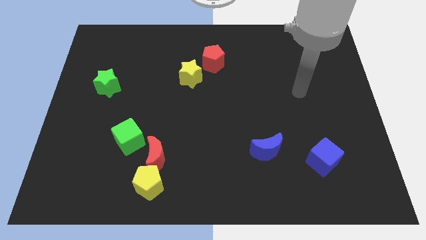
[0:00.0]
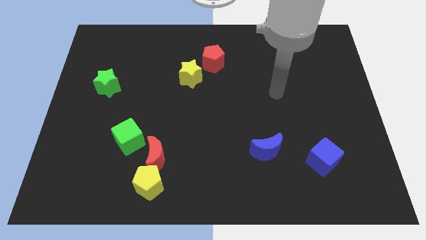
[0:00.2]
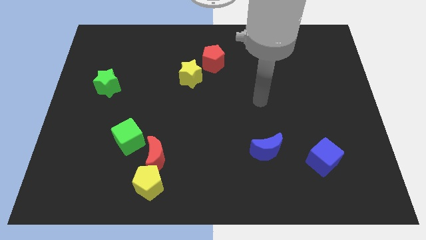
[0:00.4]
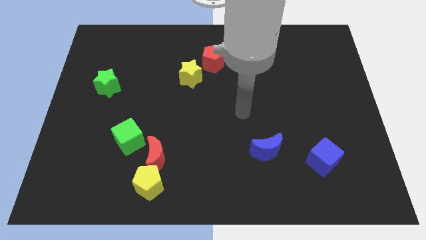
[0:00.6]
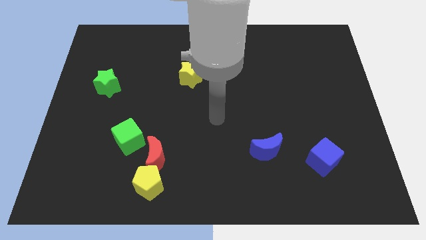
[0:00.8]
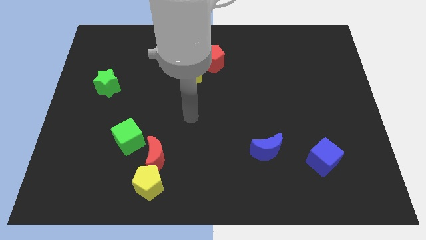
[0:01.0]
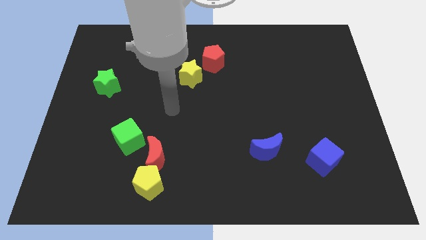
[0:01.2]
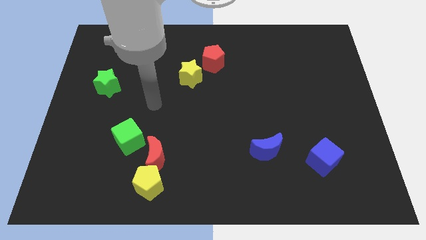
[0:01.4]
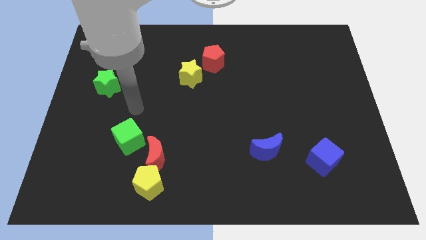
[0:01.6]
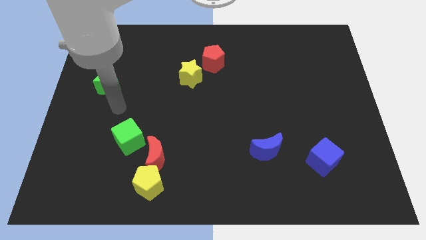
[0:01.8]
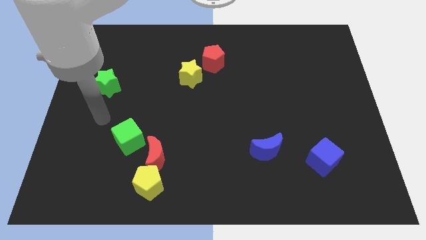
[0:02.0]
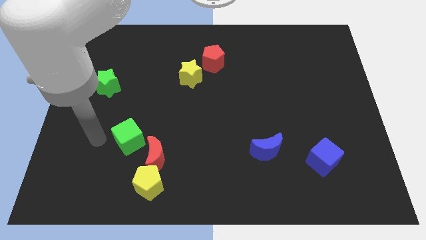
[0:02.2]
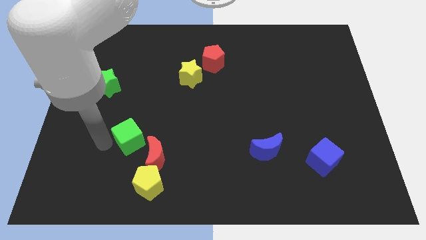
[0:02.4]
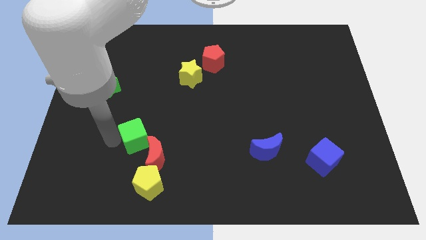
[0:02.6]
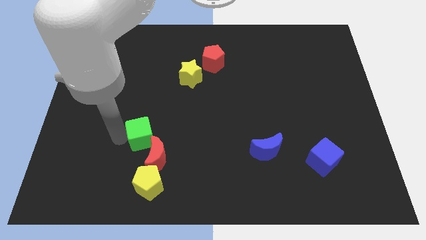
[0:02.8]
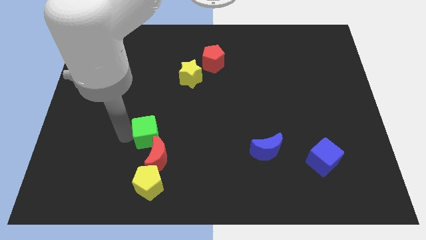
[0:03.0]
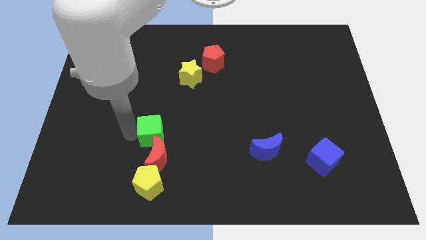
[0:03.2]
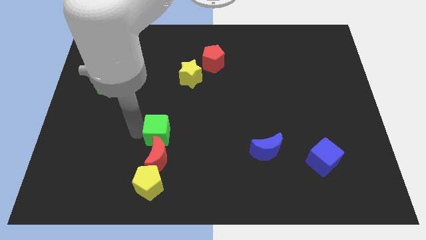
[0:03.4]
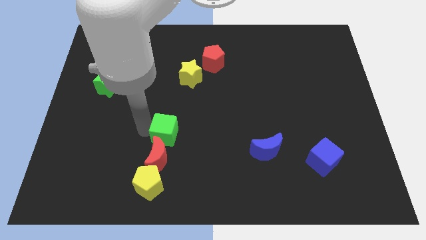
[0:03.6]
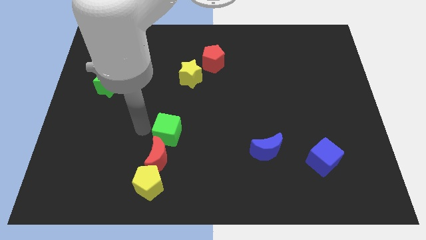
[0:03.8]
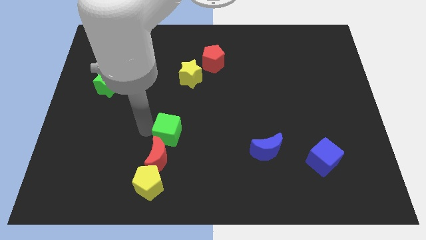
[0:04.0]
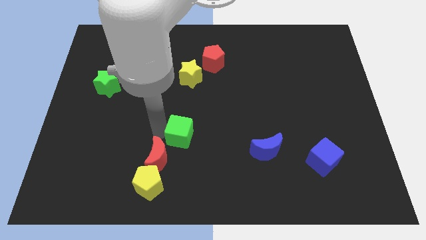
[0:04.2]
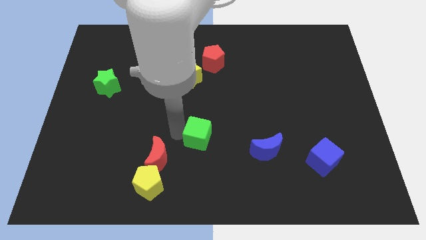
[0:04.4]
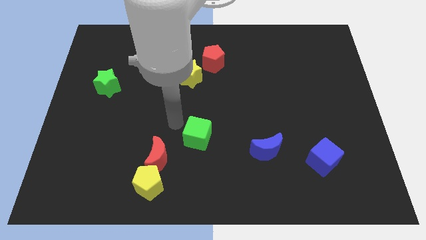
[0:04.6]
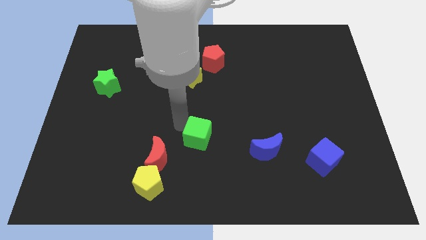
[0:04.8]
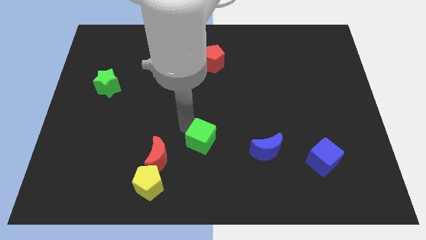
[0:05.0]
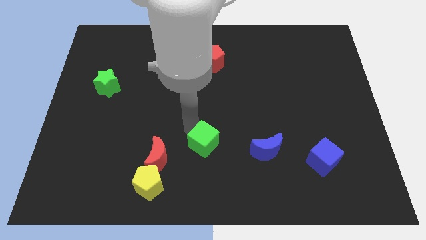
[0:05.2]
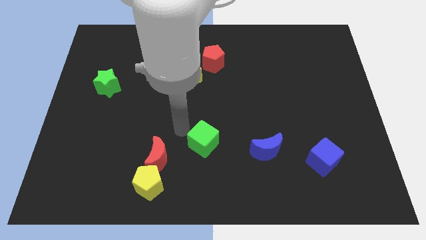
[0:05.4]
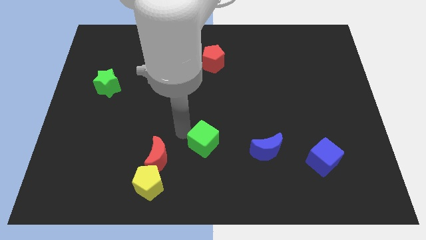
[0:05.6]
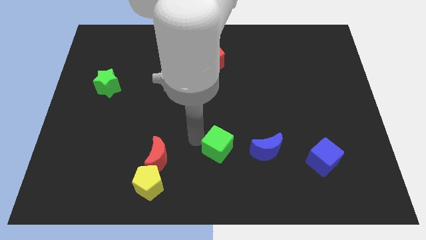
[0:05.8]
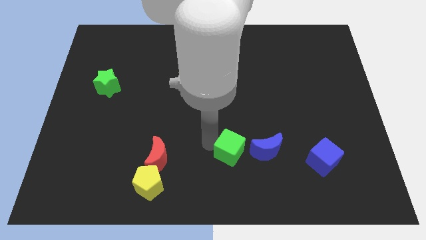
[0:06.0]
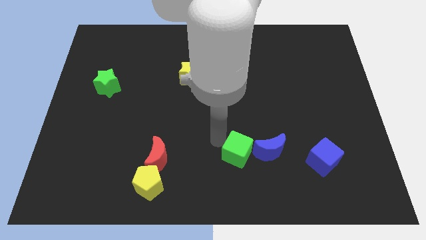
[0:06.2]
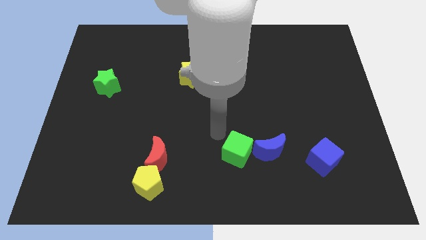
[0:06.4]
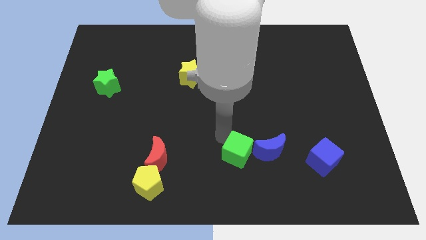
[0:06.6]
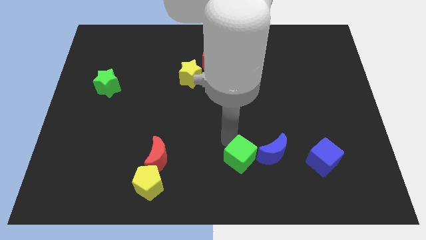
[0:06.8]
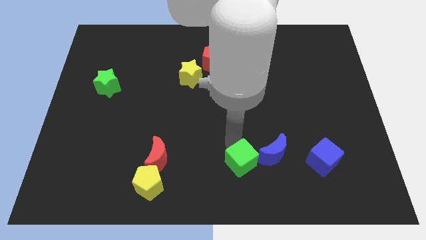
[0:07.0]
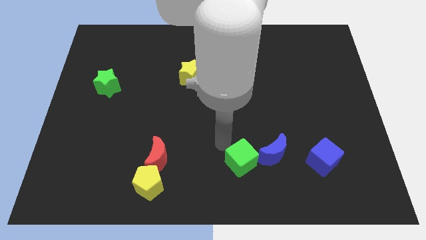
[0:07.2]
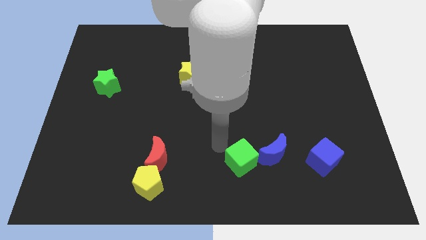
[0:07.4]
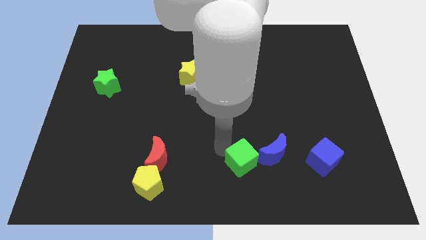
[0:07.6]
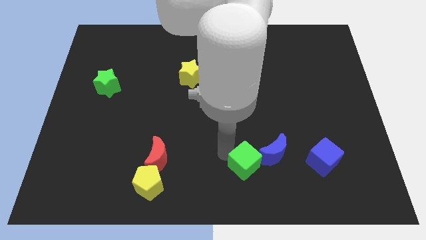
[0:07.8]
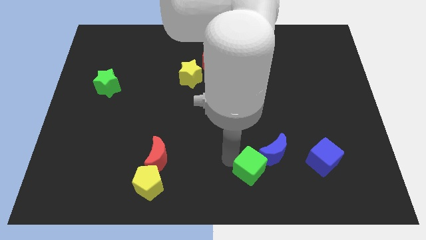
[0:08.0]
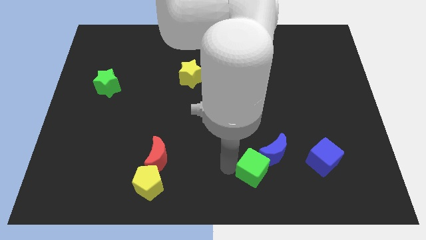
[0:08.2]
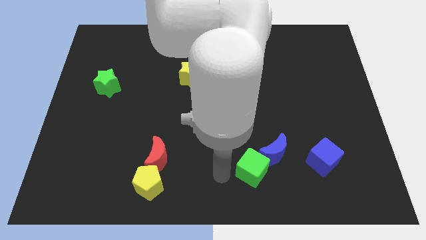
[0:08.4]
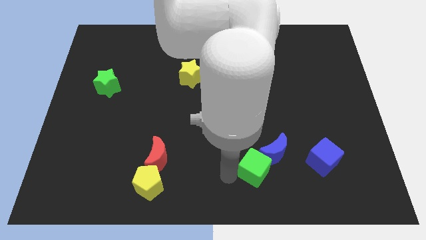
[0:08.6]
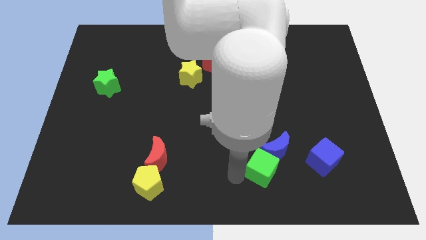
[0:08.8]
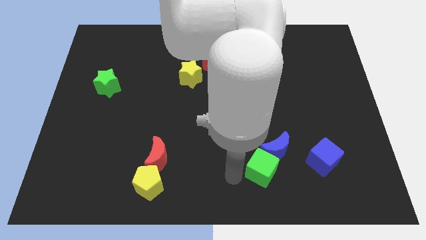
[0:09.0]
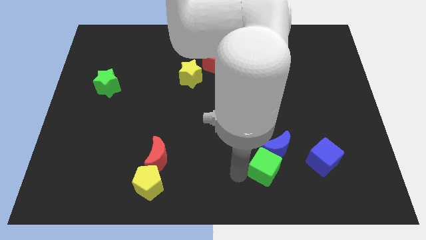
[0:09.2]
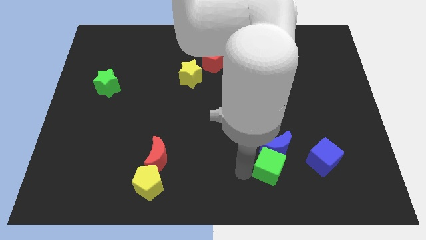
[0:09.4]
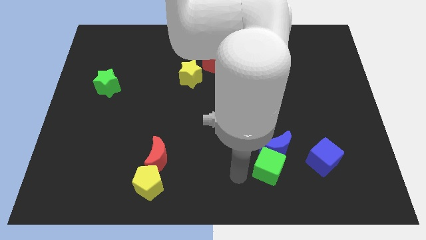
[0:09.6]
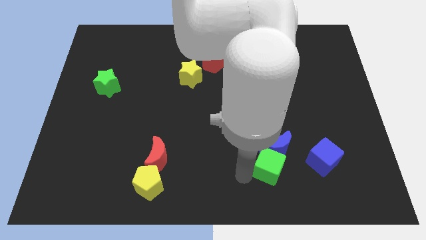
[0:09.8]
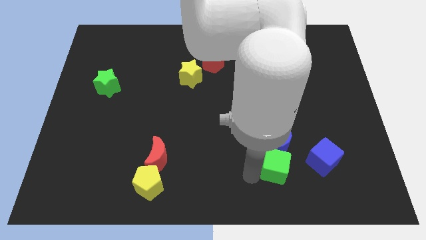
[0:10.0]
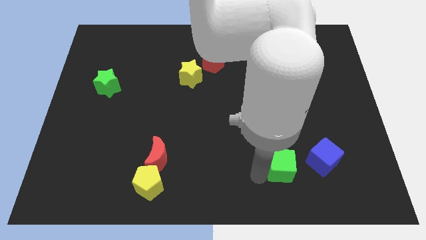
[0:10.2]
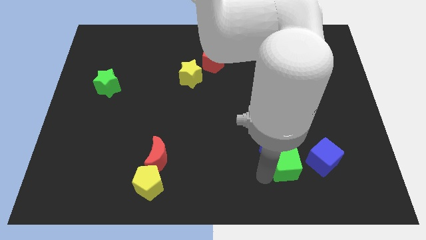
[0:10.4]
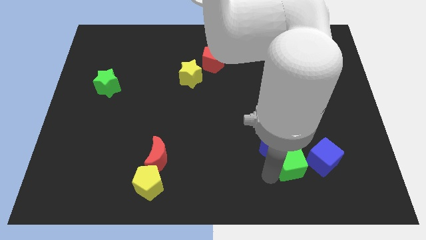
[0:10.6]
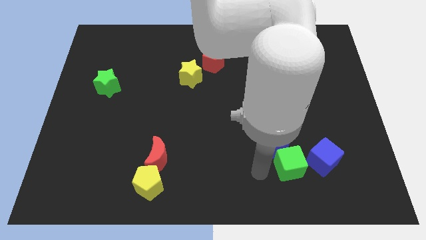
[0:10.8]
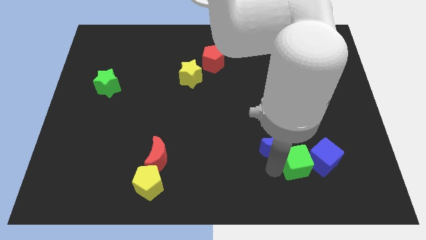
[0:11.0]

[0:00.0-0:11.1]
put the green cube towards the blue cube

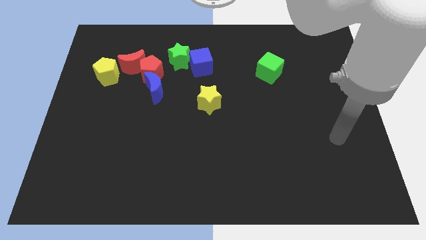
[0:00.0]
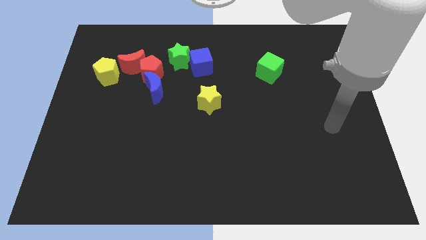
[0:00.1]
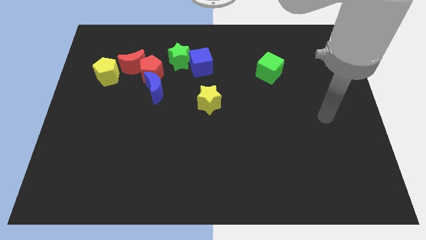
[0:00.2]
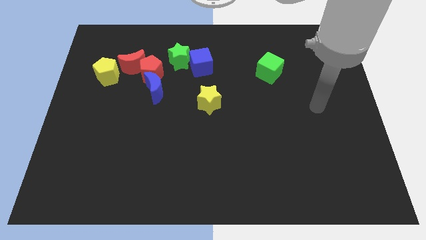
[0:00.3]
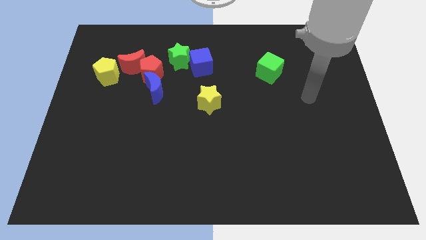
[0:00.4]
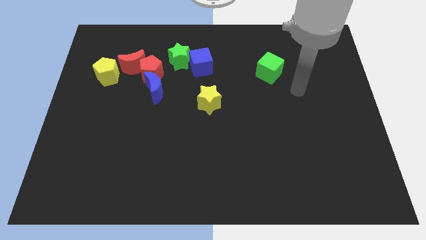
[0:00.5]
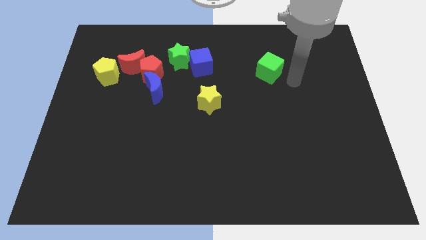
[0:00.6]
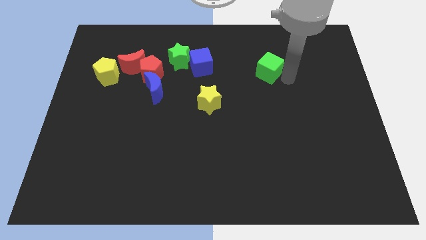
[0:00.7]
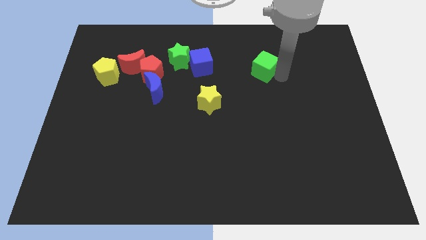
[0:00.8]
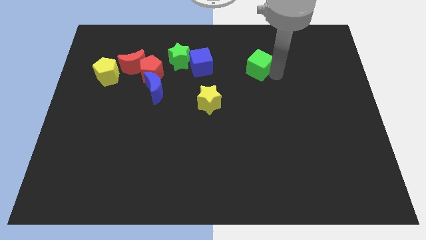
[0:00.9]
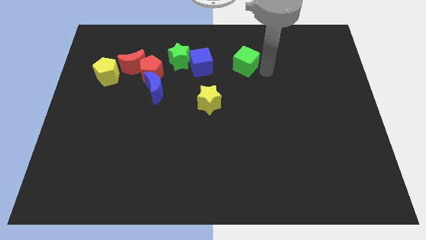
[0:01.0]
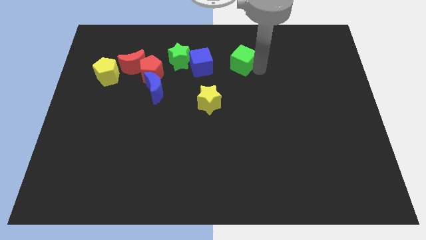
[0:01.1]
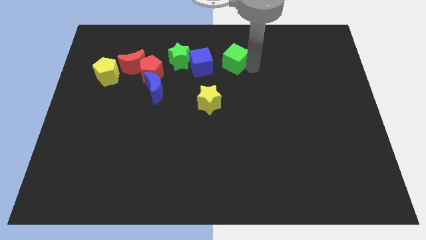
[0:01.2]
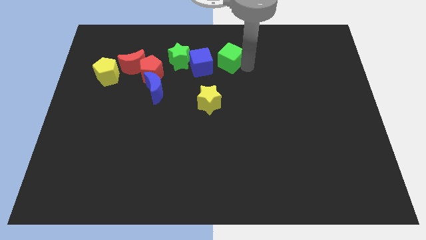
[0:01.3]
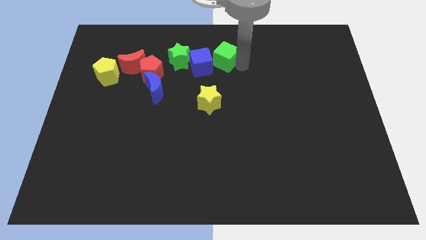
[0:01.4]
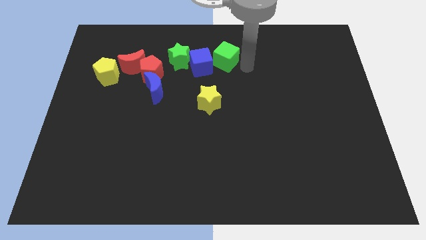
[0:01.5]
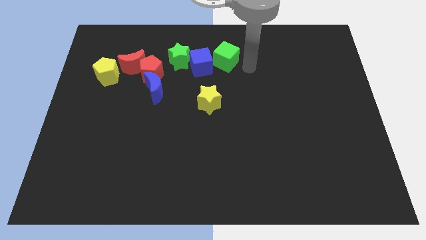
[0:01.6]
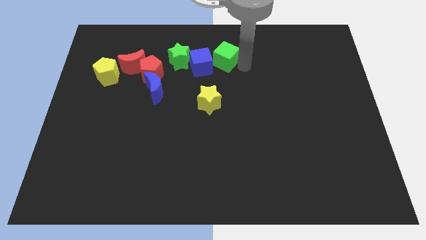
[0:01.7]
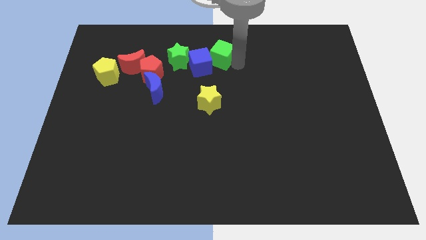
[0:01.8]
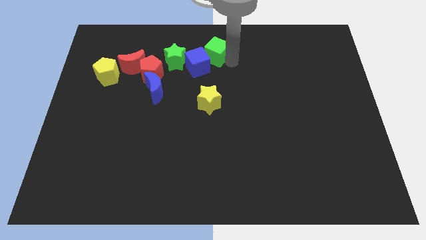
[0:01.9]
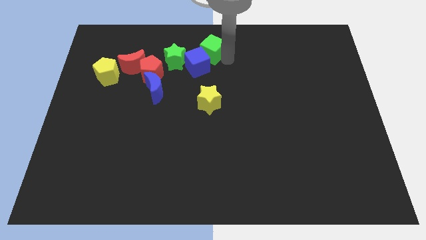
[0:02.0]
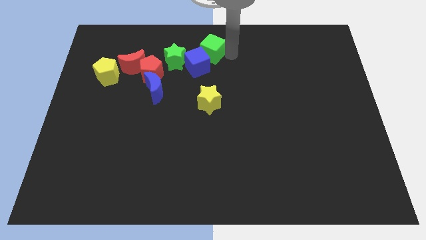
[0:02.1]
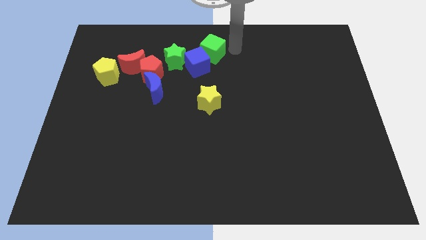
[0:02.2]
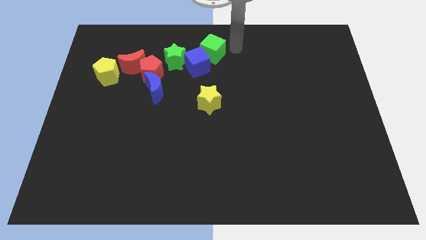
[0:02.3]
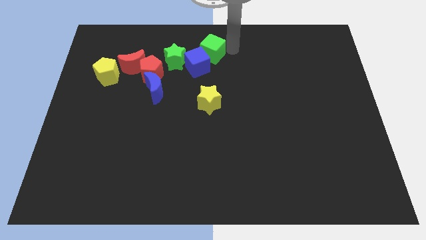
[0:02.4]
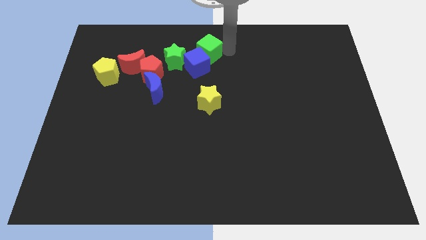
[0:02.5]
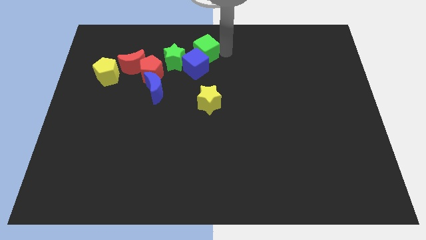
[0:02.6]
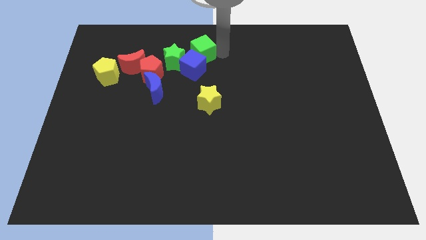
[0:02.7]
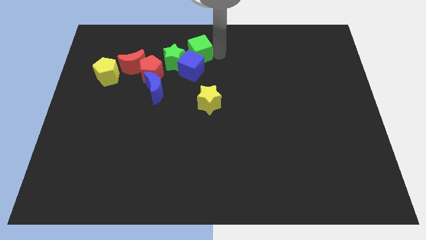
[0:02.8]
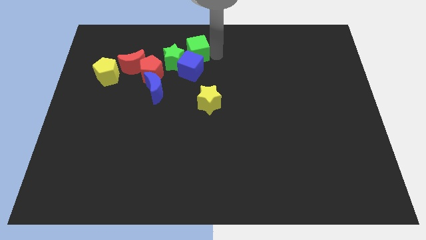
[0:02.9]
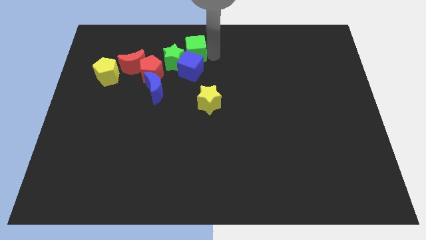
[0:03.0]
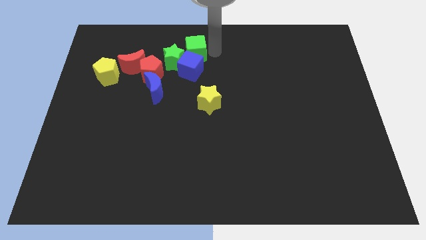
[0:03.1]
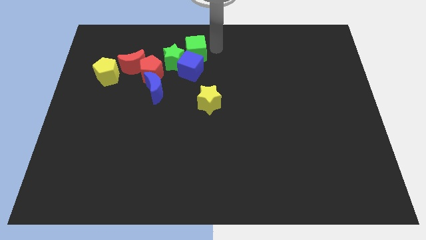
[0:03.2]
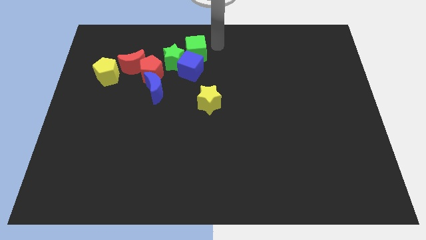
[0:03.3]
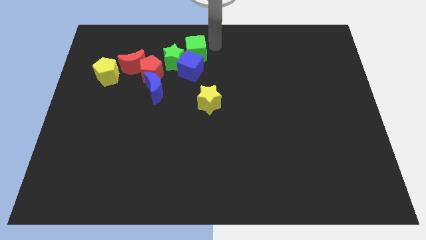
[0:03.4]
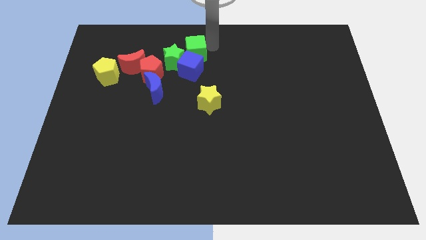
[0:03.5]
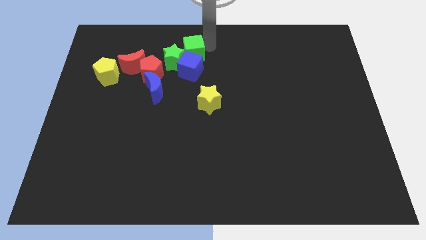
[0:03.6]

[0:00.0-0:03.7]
push the green cube towards the green star
